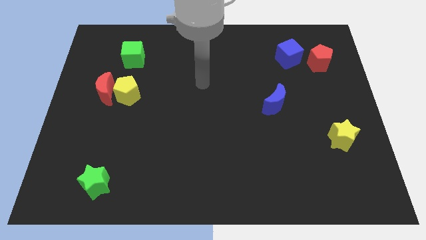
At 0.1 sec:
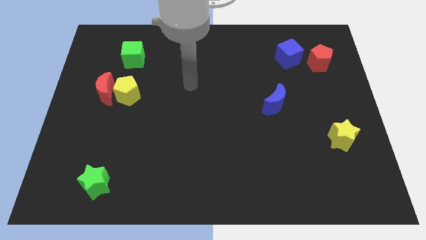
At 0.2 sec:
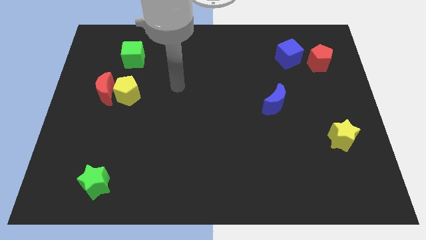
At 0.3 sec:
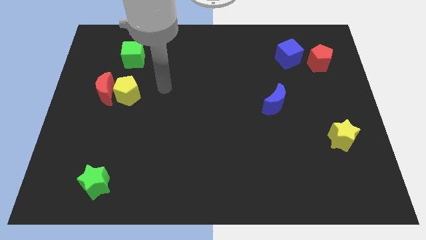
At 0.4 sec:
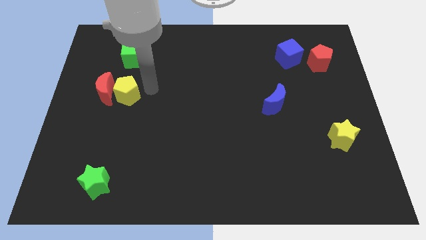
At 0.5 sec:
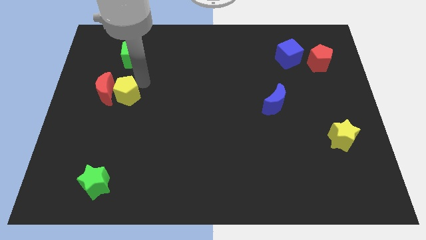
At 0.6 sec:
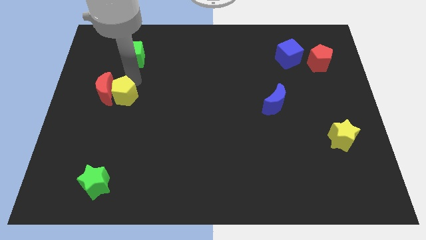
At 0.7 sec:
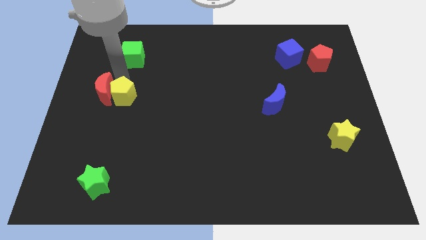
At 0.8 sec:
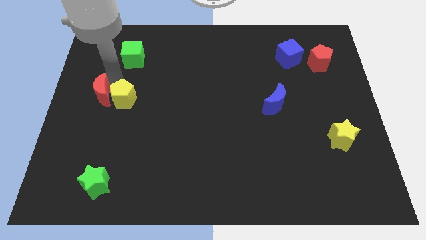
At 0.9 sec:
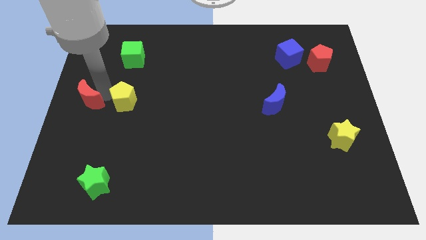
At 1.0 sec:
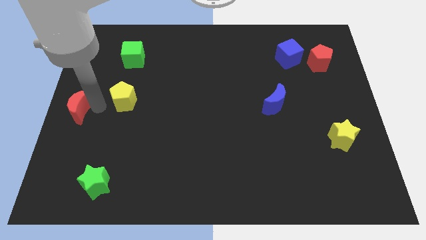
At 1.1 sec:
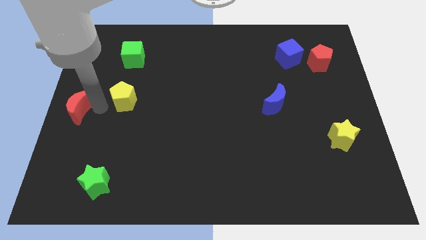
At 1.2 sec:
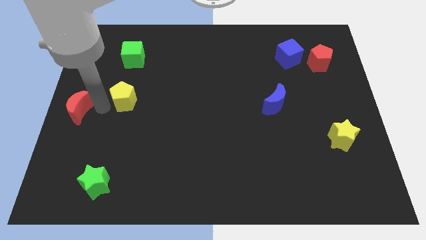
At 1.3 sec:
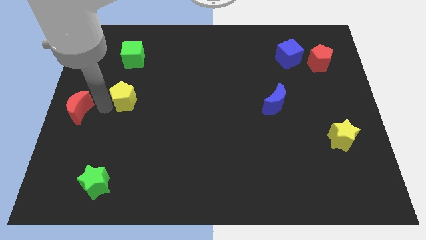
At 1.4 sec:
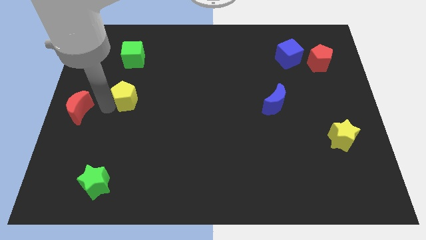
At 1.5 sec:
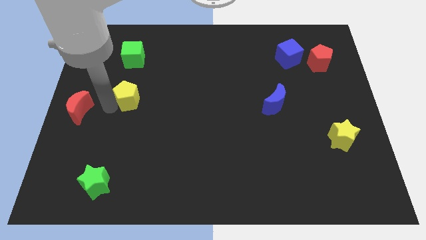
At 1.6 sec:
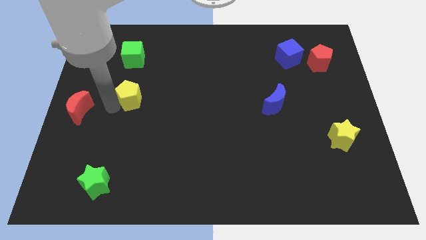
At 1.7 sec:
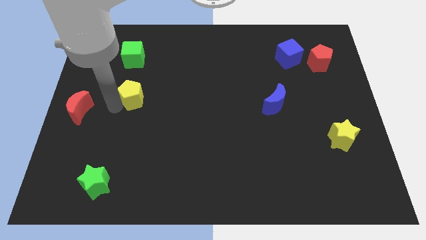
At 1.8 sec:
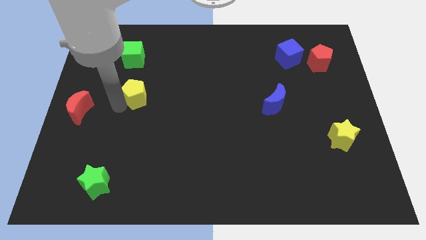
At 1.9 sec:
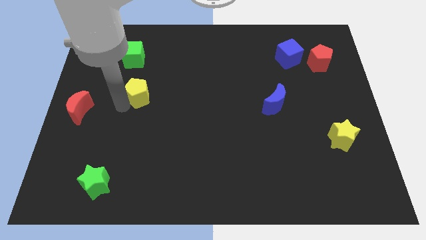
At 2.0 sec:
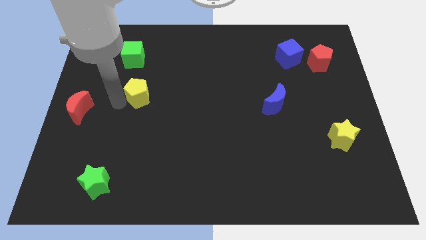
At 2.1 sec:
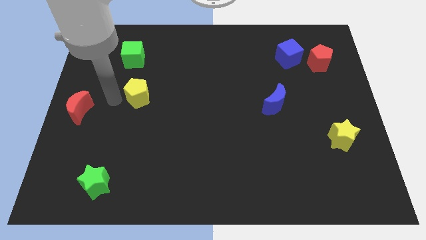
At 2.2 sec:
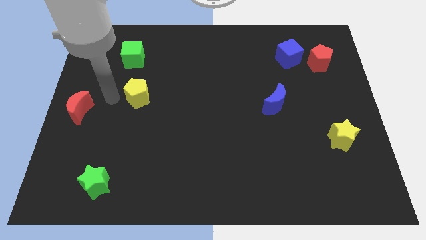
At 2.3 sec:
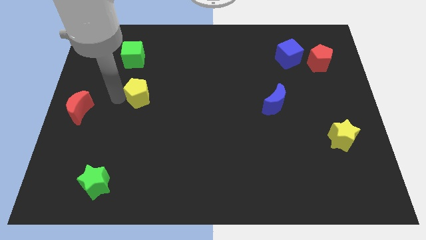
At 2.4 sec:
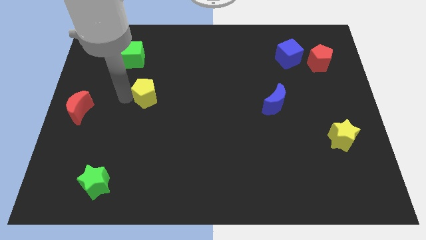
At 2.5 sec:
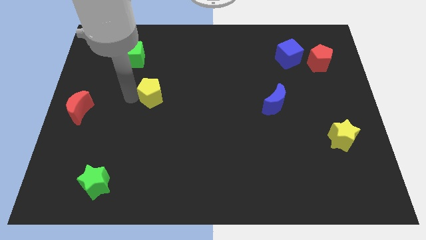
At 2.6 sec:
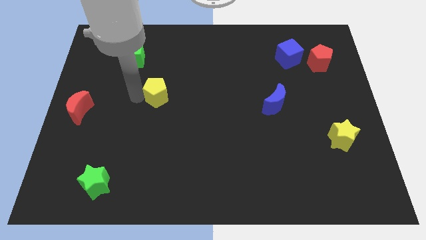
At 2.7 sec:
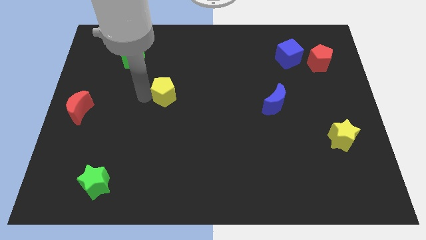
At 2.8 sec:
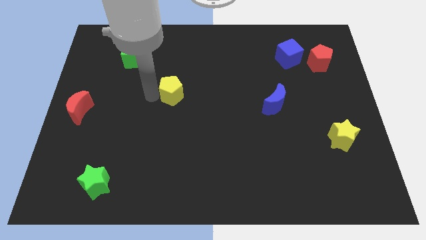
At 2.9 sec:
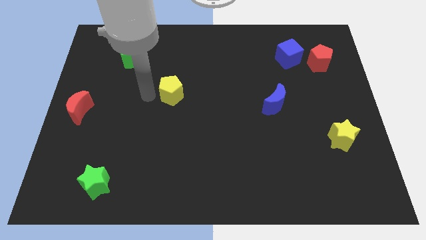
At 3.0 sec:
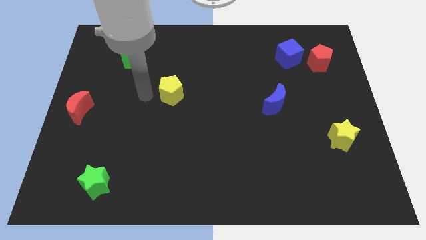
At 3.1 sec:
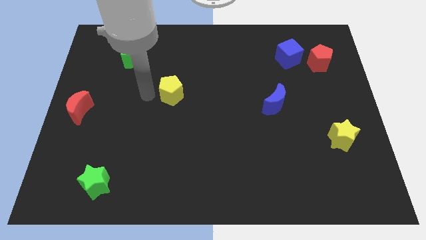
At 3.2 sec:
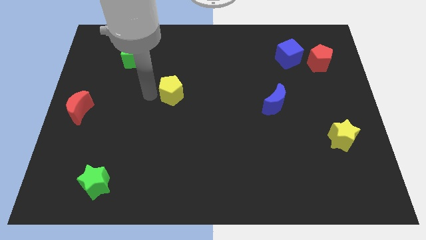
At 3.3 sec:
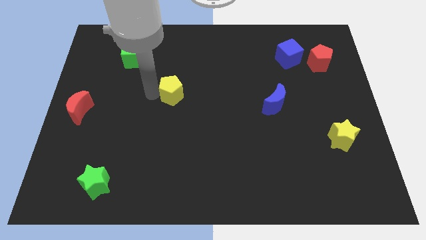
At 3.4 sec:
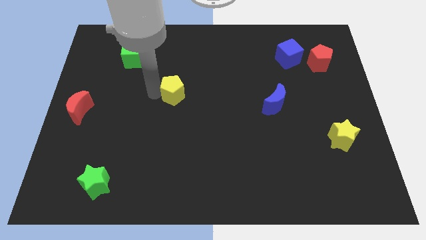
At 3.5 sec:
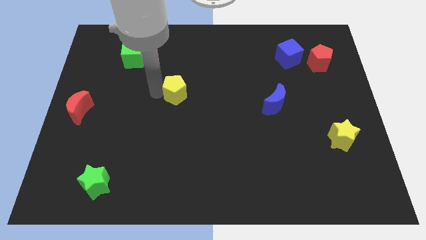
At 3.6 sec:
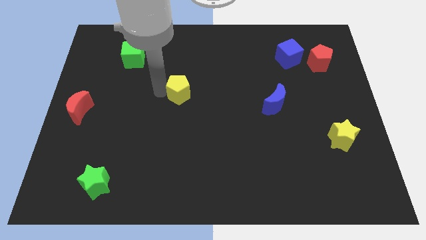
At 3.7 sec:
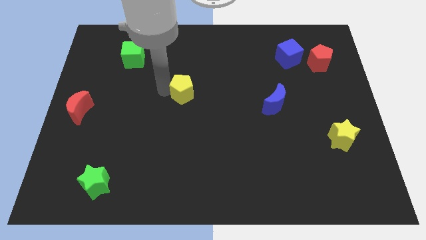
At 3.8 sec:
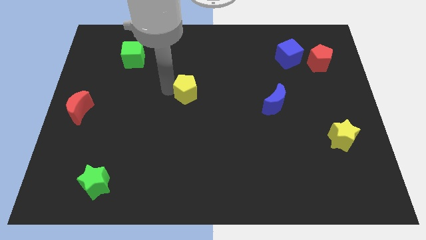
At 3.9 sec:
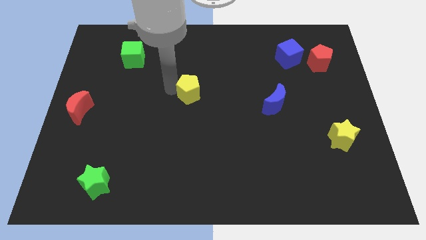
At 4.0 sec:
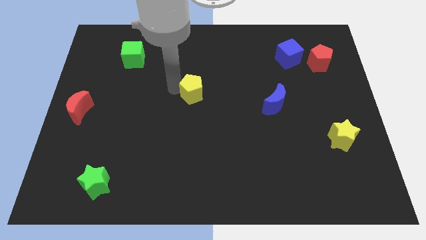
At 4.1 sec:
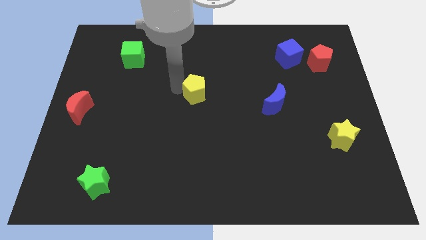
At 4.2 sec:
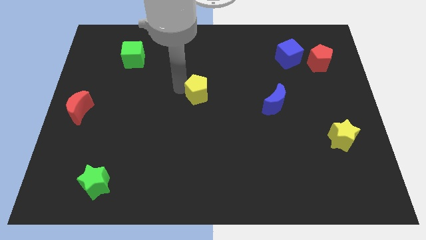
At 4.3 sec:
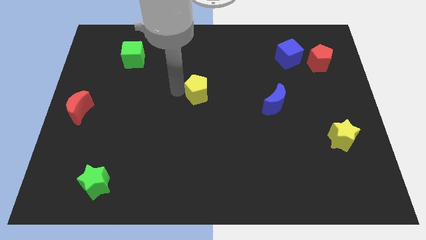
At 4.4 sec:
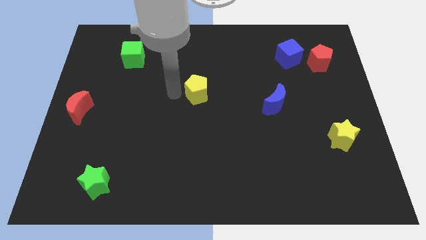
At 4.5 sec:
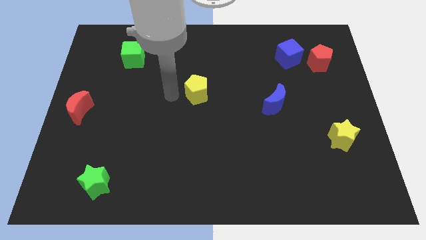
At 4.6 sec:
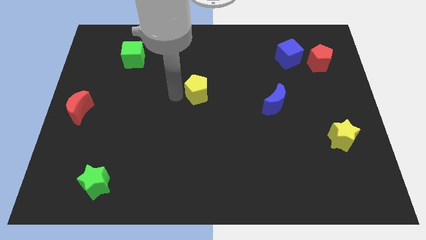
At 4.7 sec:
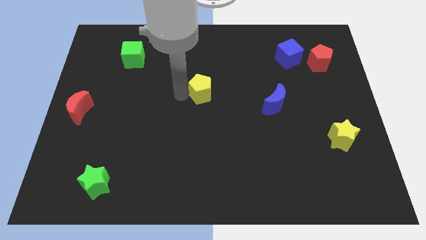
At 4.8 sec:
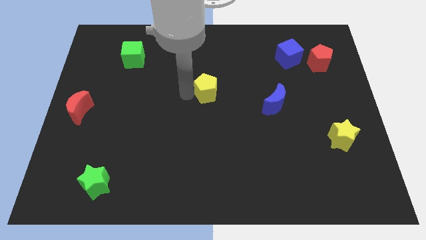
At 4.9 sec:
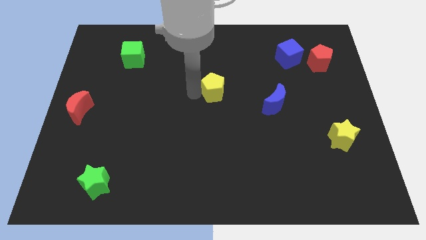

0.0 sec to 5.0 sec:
push the yellow pentagon right

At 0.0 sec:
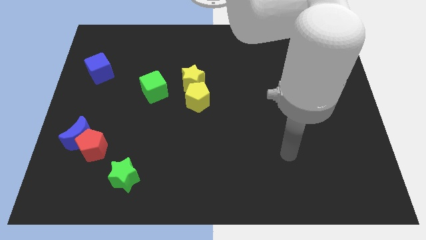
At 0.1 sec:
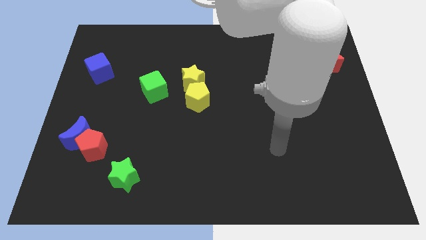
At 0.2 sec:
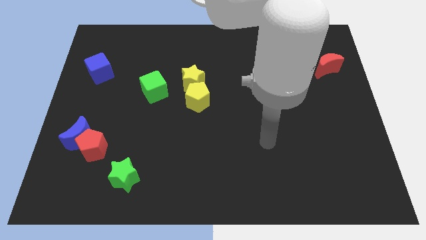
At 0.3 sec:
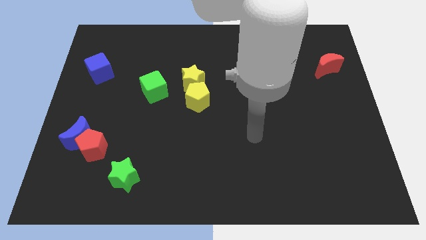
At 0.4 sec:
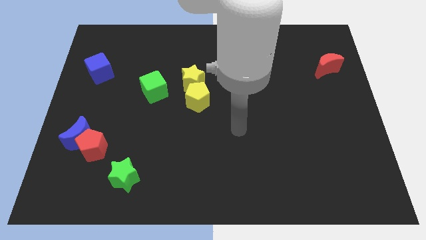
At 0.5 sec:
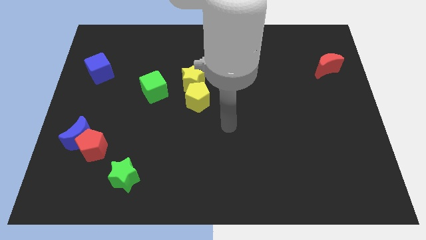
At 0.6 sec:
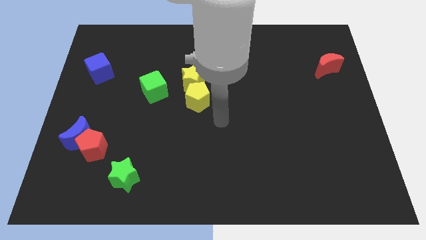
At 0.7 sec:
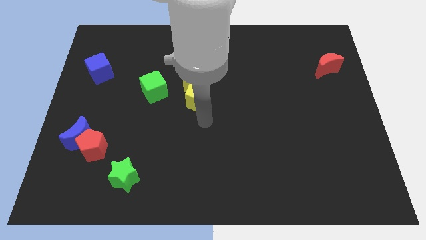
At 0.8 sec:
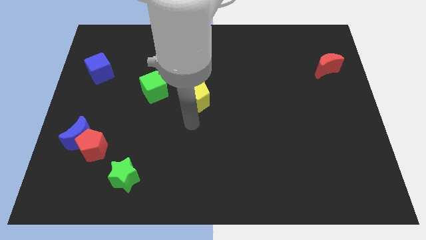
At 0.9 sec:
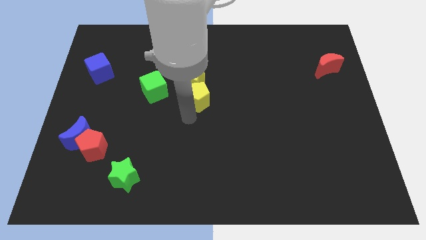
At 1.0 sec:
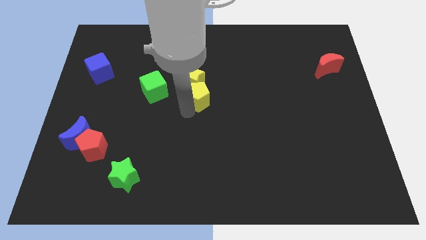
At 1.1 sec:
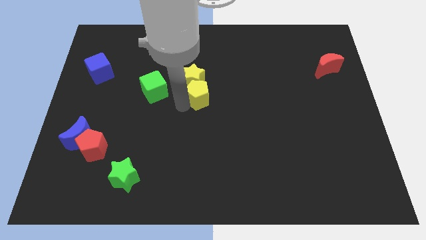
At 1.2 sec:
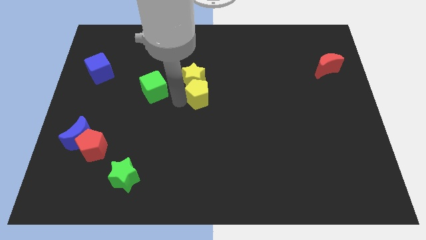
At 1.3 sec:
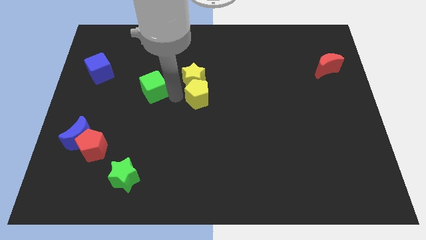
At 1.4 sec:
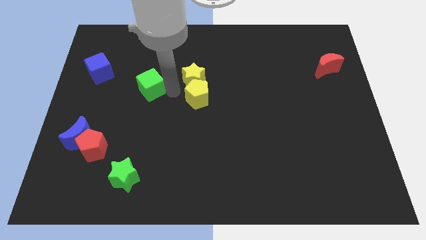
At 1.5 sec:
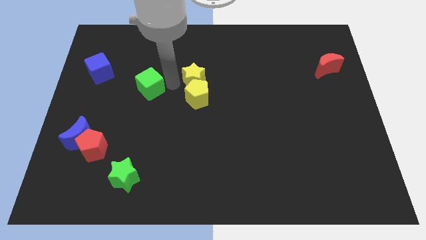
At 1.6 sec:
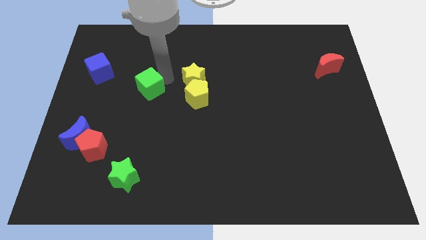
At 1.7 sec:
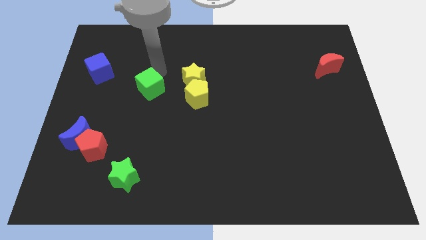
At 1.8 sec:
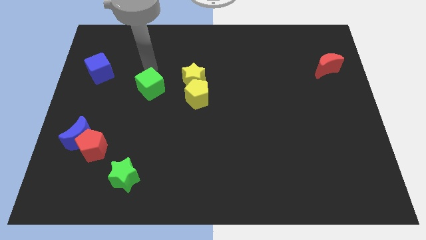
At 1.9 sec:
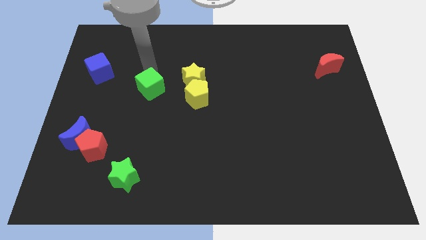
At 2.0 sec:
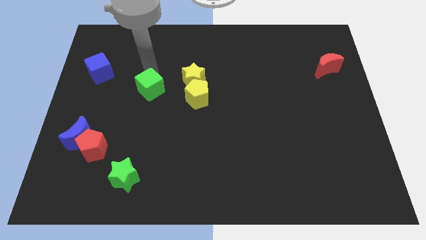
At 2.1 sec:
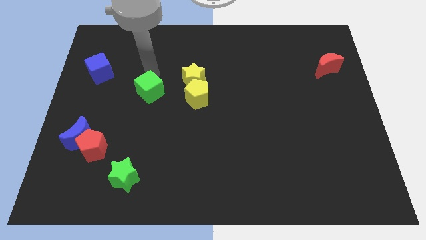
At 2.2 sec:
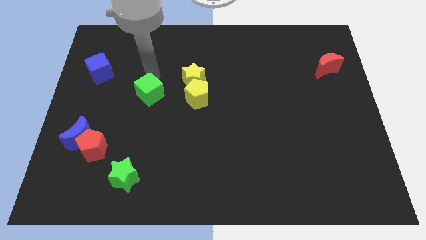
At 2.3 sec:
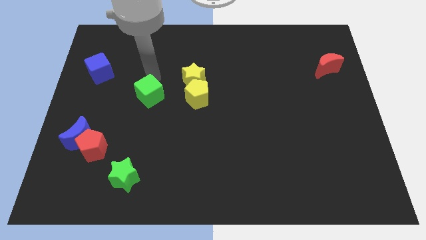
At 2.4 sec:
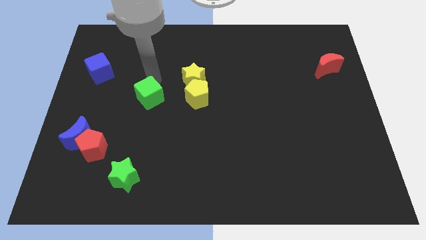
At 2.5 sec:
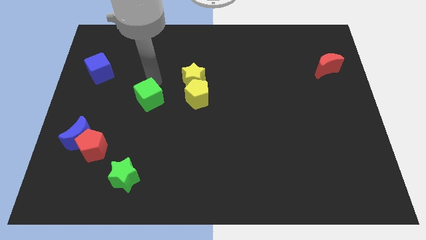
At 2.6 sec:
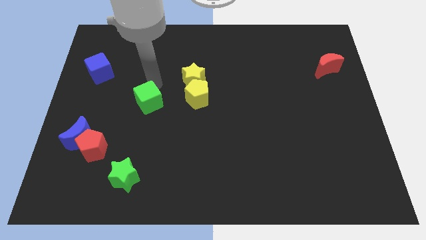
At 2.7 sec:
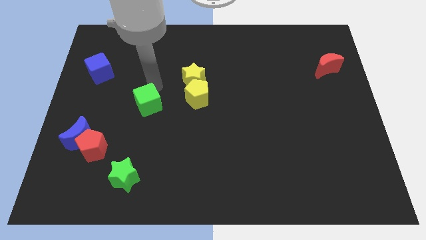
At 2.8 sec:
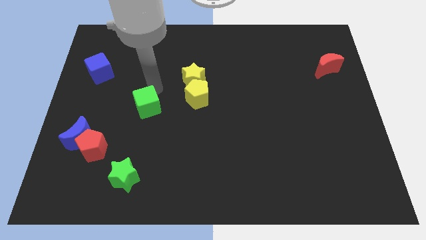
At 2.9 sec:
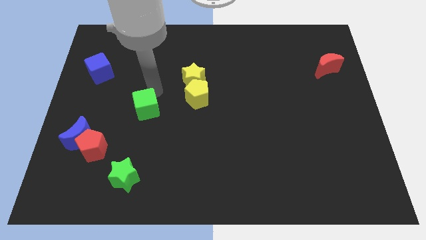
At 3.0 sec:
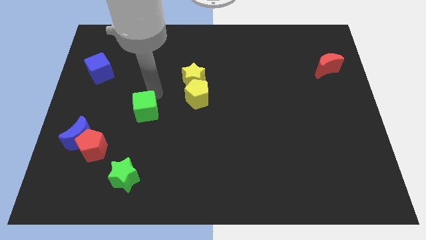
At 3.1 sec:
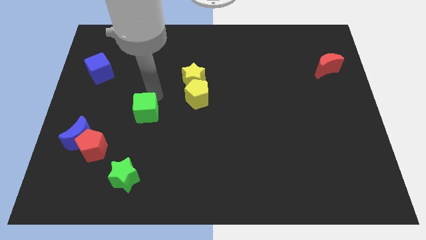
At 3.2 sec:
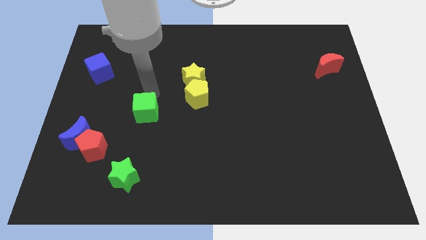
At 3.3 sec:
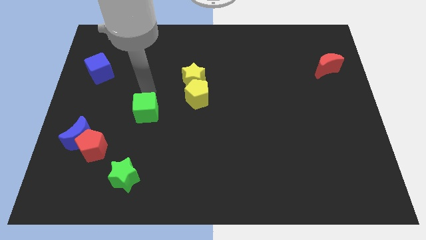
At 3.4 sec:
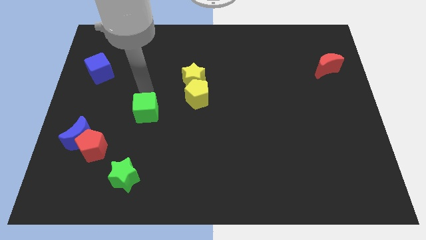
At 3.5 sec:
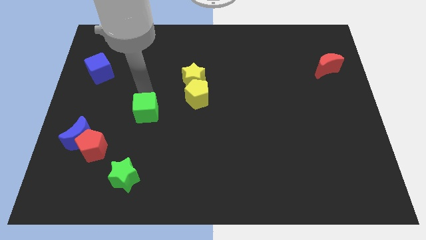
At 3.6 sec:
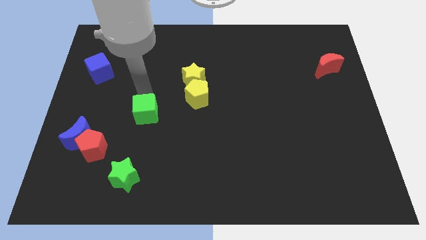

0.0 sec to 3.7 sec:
slide the green cube downwards somewhat
